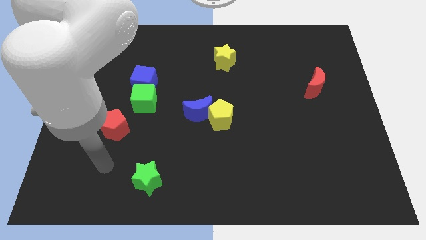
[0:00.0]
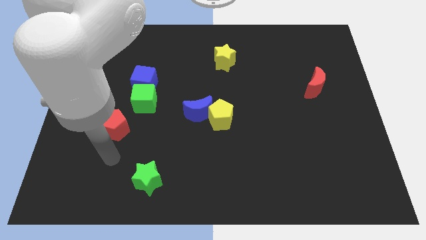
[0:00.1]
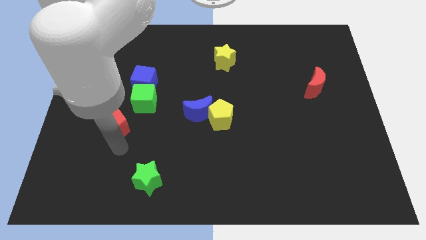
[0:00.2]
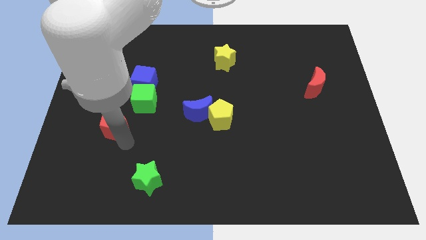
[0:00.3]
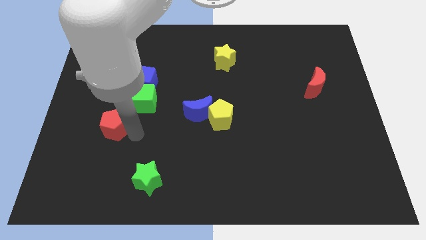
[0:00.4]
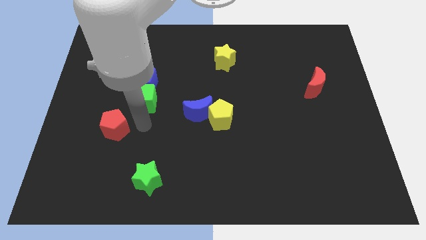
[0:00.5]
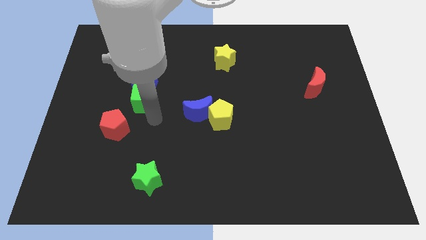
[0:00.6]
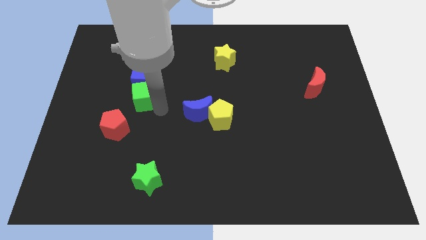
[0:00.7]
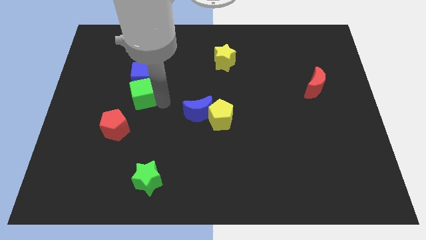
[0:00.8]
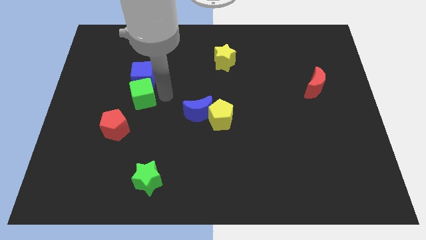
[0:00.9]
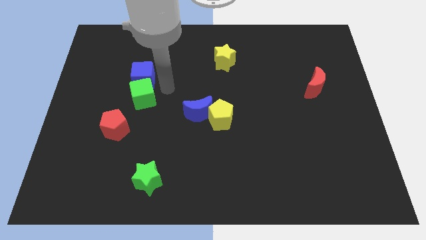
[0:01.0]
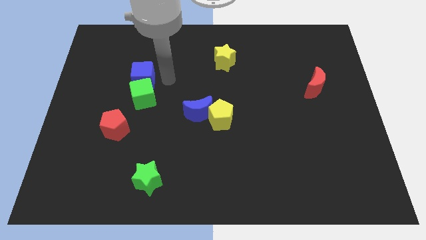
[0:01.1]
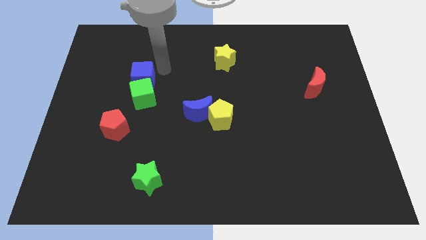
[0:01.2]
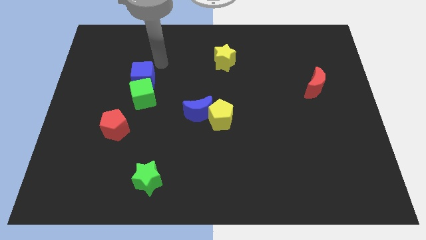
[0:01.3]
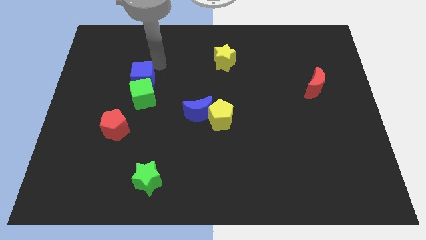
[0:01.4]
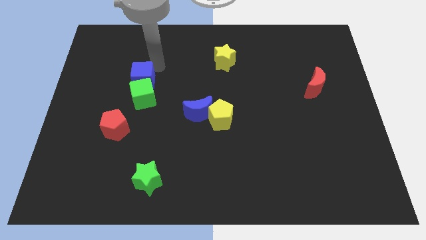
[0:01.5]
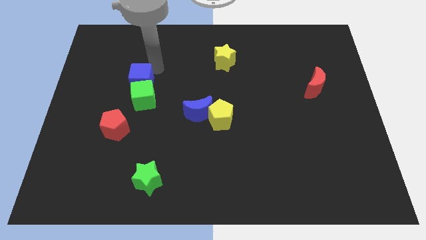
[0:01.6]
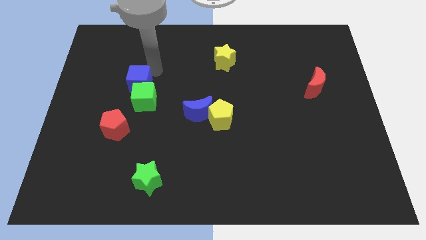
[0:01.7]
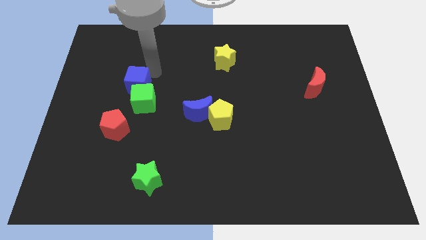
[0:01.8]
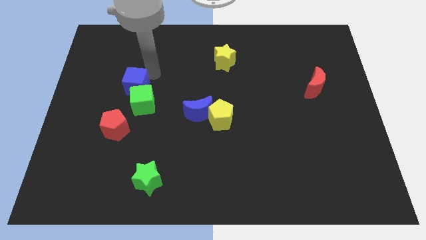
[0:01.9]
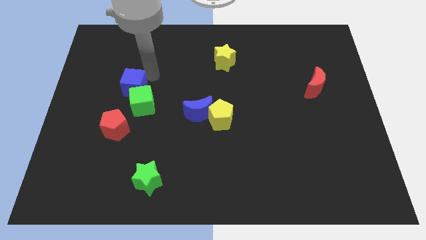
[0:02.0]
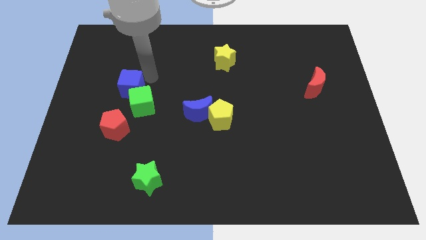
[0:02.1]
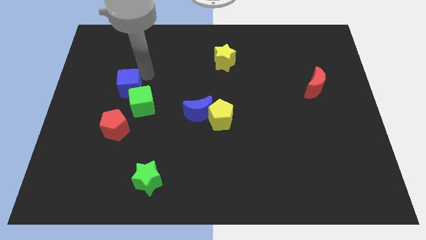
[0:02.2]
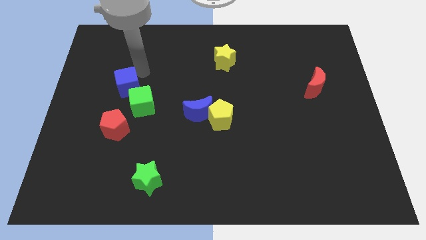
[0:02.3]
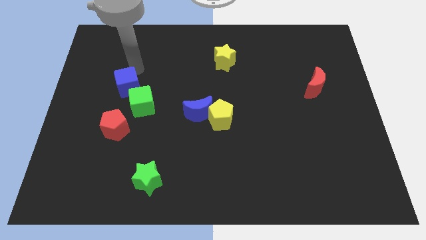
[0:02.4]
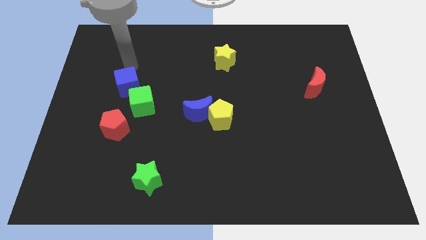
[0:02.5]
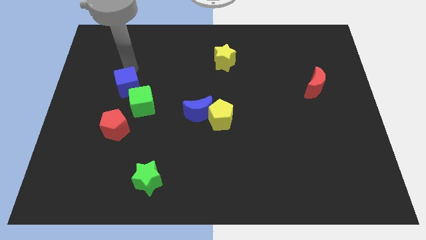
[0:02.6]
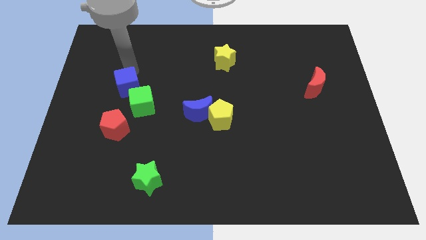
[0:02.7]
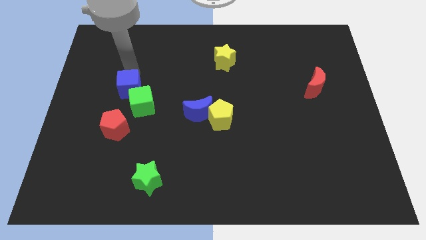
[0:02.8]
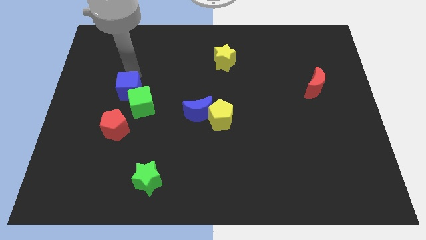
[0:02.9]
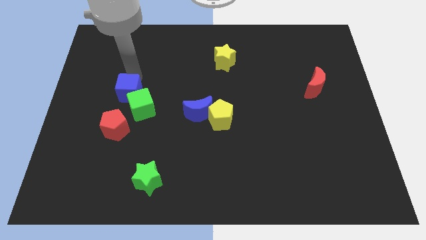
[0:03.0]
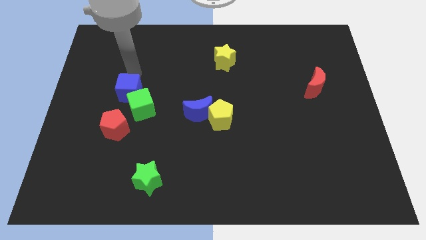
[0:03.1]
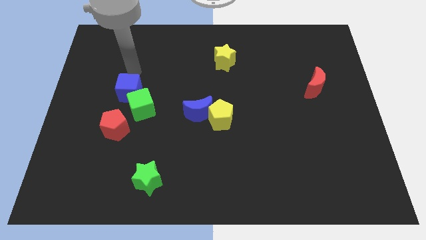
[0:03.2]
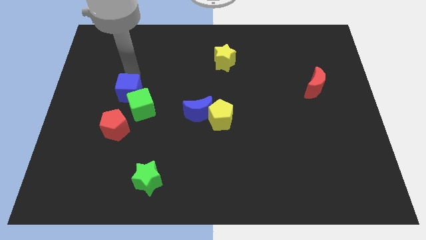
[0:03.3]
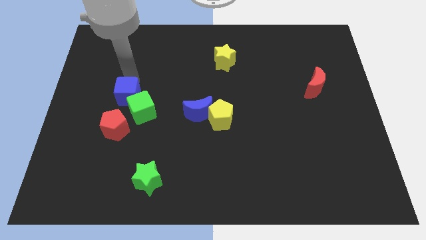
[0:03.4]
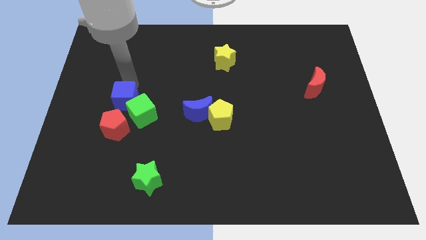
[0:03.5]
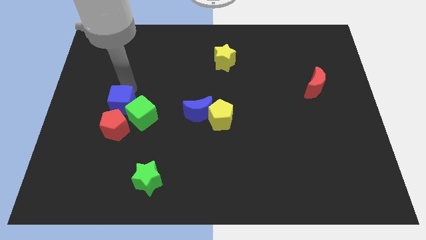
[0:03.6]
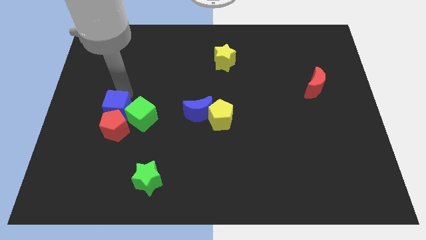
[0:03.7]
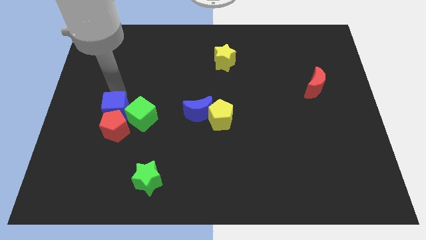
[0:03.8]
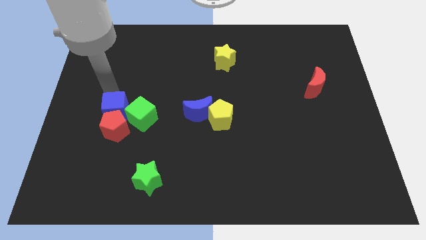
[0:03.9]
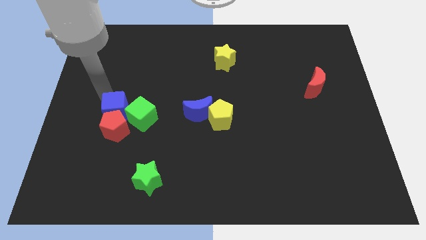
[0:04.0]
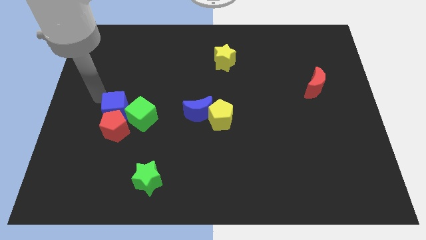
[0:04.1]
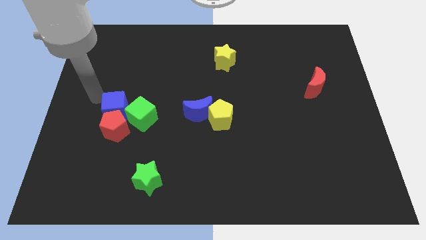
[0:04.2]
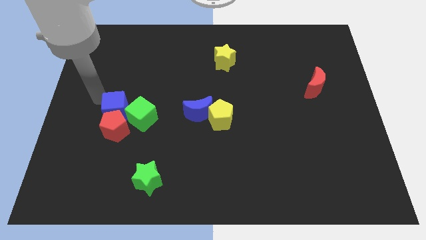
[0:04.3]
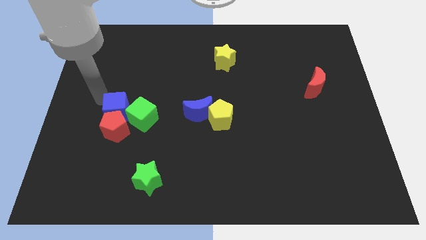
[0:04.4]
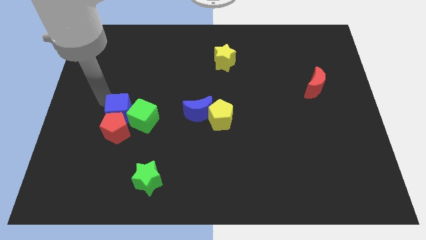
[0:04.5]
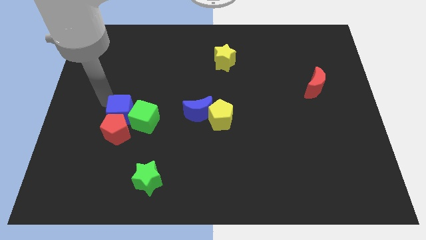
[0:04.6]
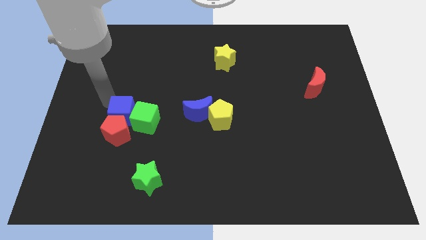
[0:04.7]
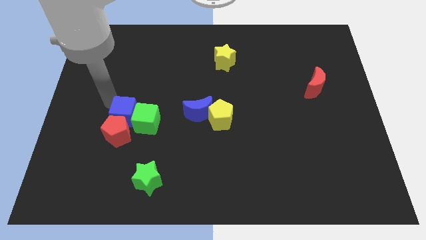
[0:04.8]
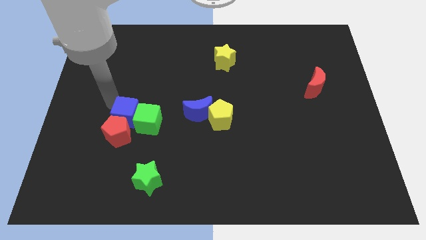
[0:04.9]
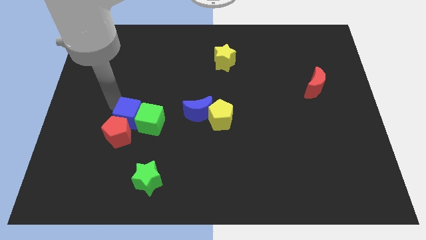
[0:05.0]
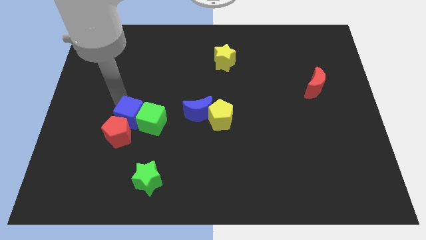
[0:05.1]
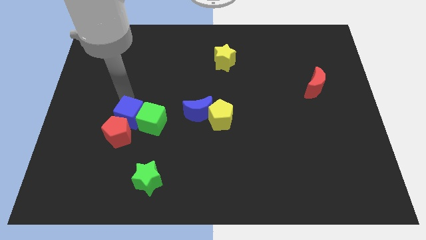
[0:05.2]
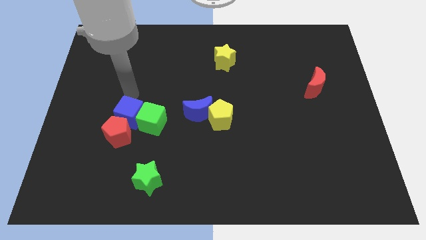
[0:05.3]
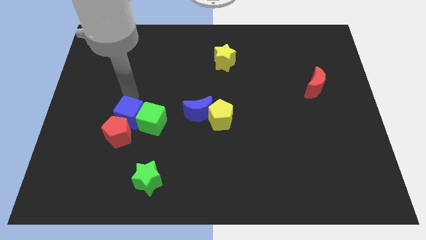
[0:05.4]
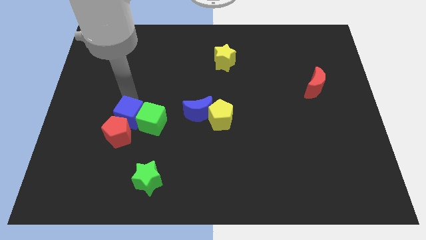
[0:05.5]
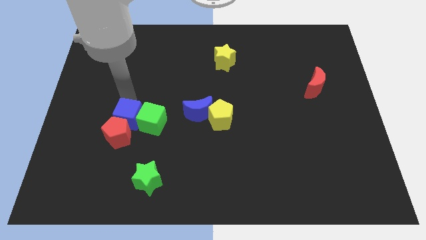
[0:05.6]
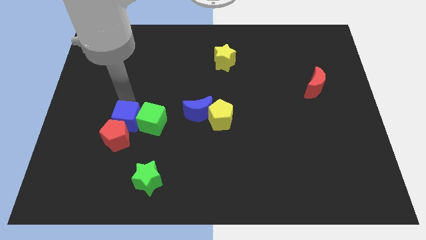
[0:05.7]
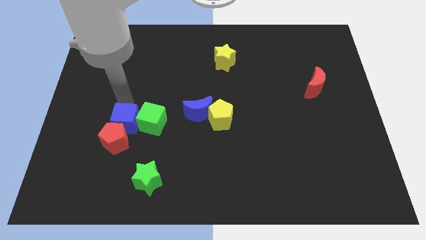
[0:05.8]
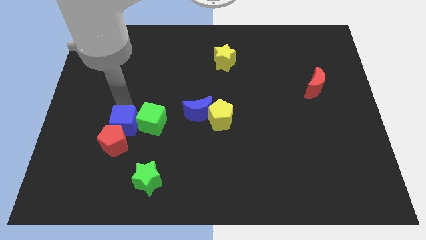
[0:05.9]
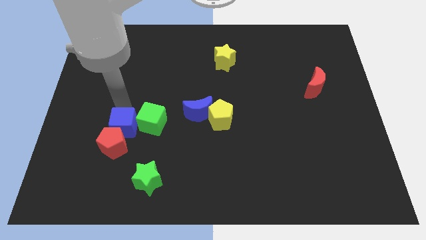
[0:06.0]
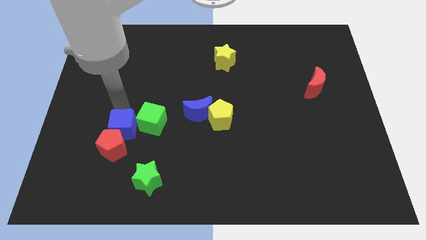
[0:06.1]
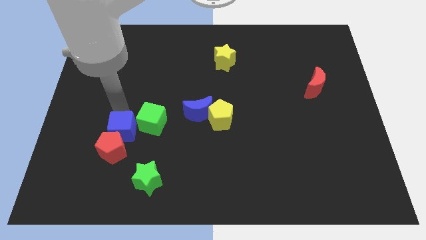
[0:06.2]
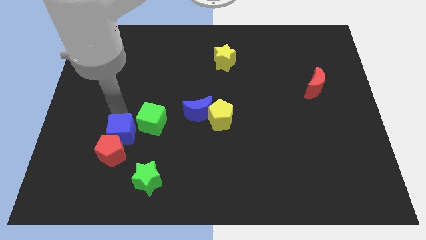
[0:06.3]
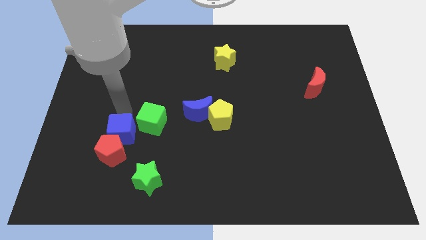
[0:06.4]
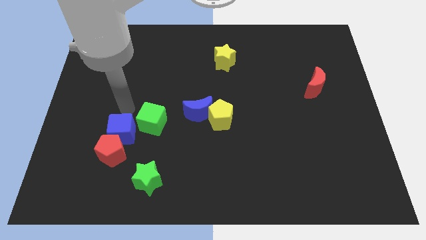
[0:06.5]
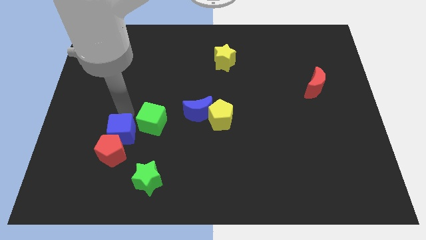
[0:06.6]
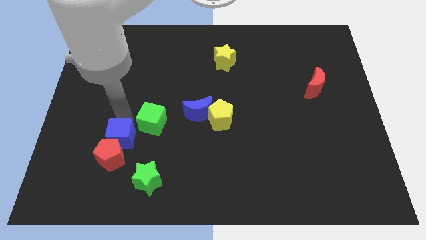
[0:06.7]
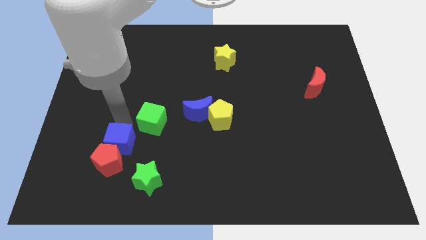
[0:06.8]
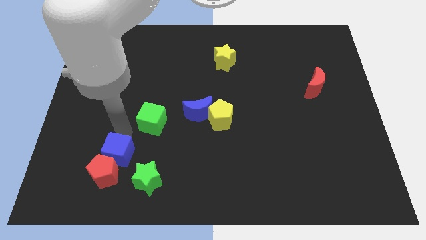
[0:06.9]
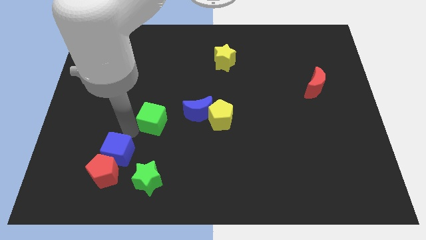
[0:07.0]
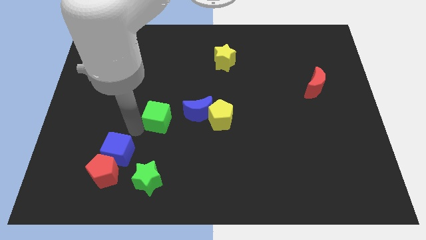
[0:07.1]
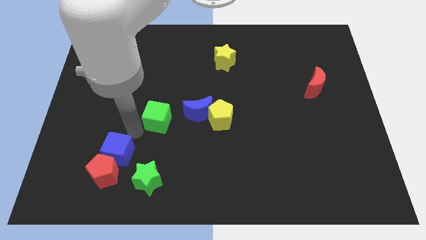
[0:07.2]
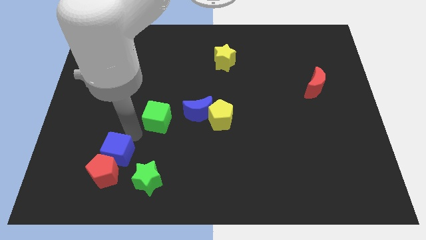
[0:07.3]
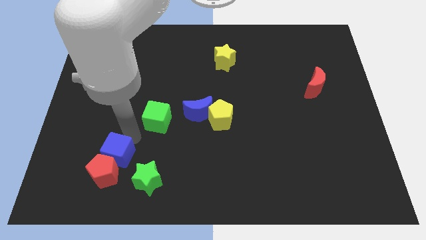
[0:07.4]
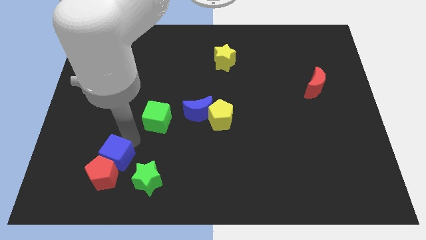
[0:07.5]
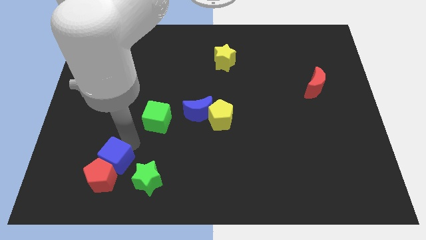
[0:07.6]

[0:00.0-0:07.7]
slide the blue cube to the left side of the green star
